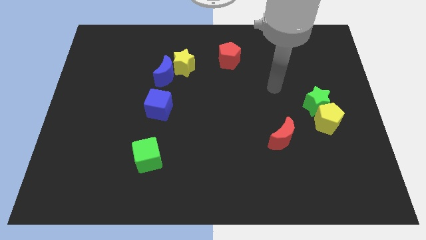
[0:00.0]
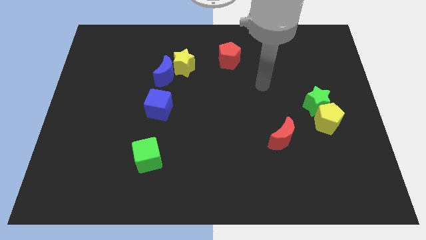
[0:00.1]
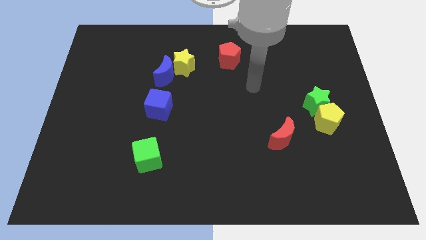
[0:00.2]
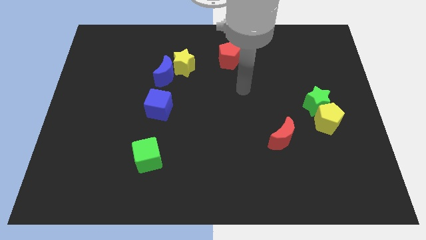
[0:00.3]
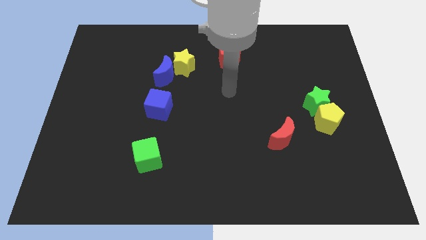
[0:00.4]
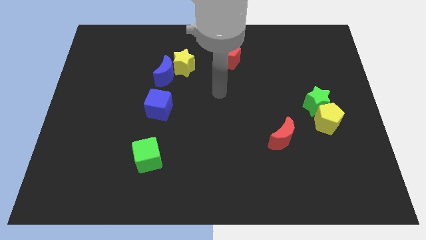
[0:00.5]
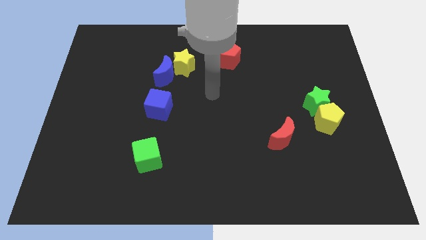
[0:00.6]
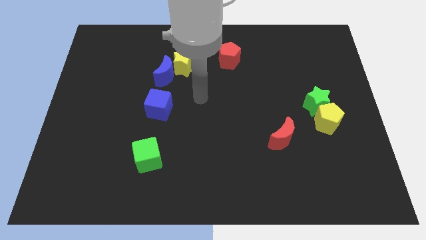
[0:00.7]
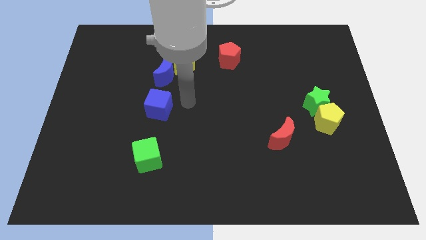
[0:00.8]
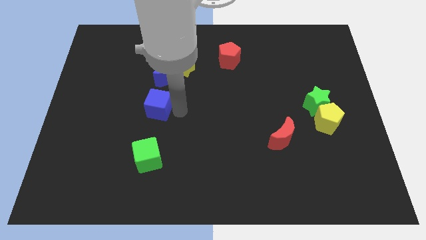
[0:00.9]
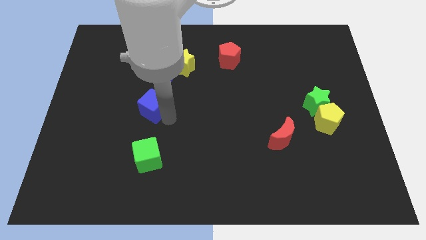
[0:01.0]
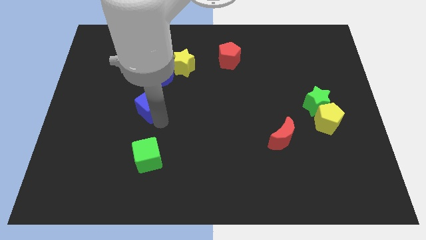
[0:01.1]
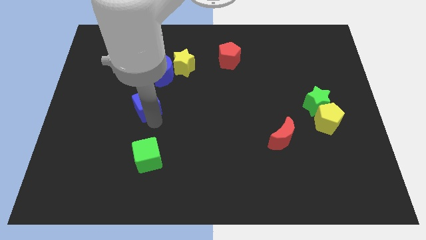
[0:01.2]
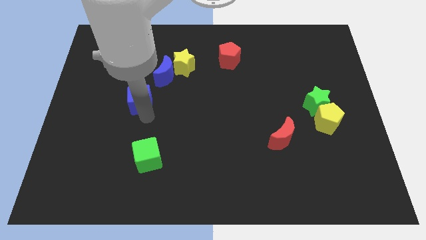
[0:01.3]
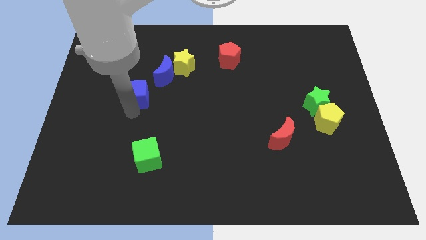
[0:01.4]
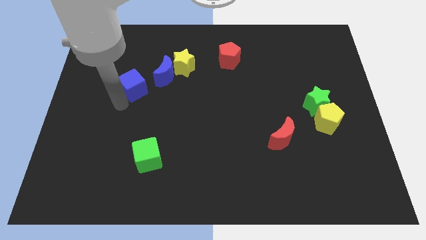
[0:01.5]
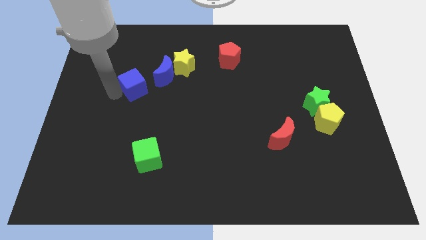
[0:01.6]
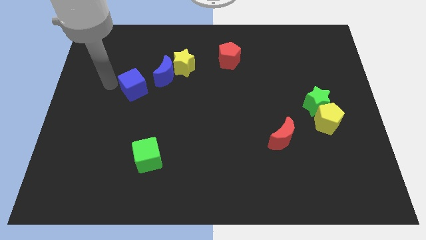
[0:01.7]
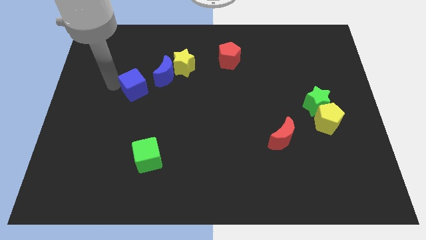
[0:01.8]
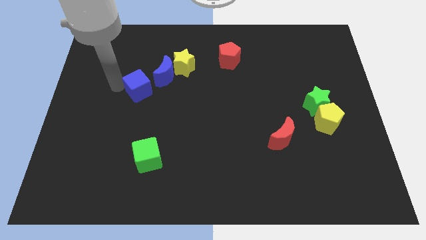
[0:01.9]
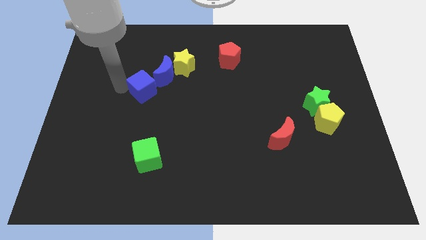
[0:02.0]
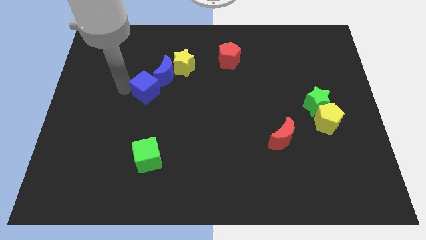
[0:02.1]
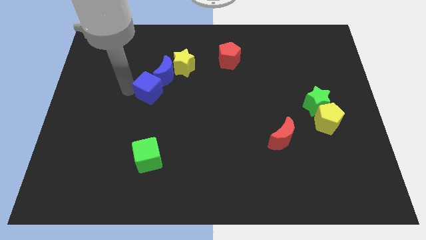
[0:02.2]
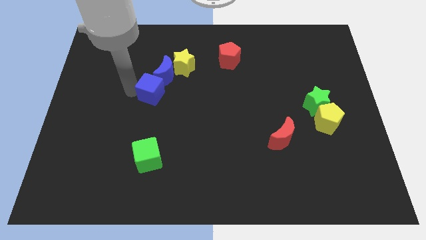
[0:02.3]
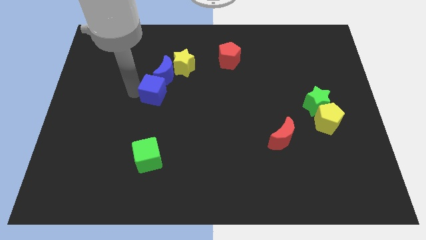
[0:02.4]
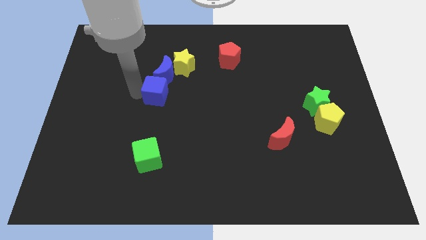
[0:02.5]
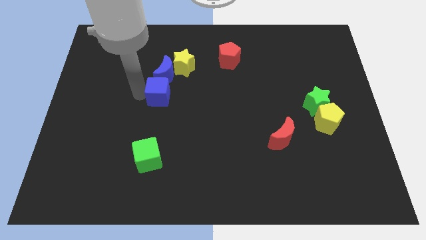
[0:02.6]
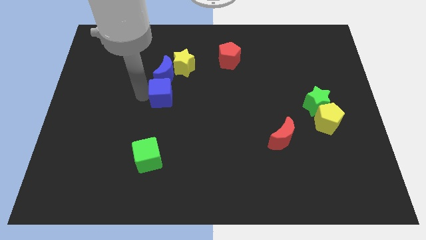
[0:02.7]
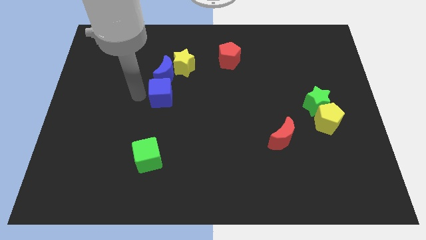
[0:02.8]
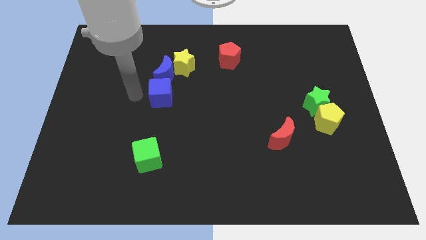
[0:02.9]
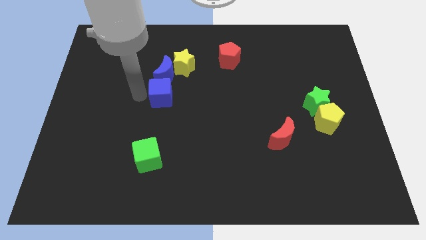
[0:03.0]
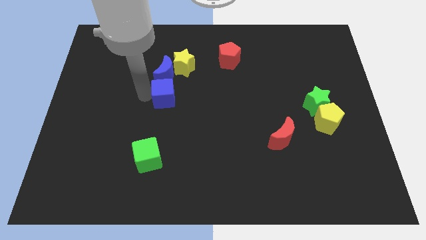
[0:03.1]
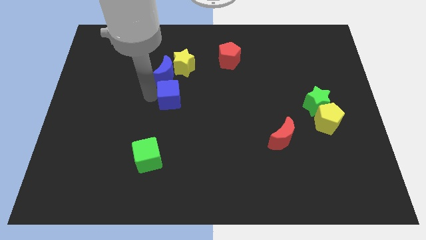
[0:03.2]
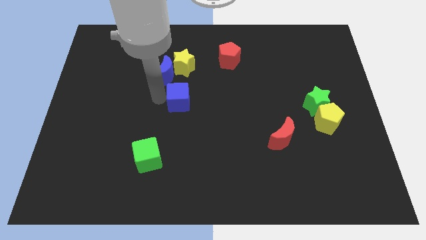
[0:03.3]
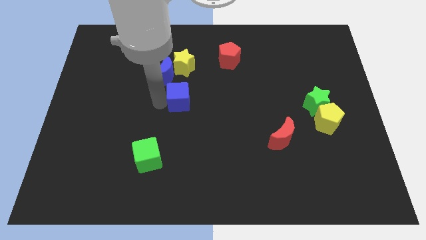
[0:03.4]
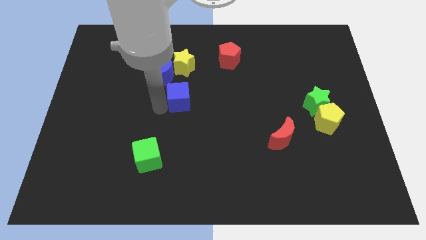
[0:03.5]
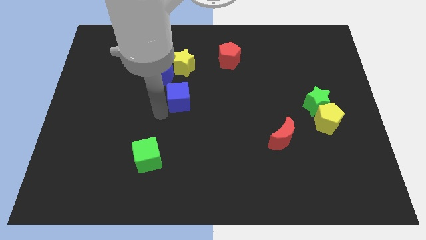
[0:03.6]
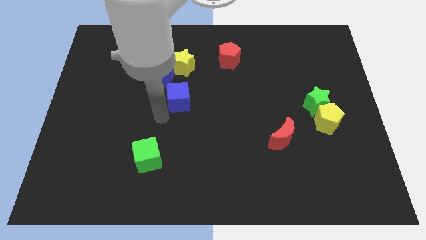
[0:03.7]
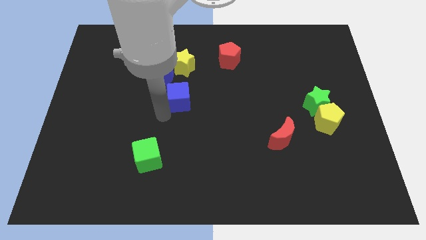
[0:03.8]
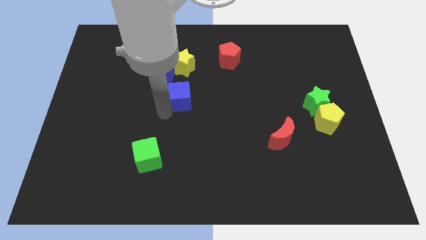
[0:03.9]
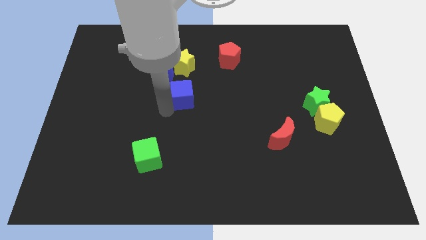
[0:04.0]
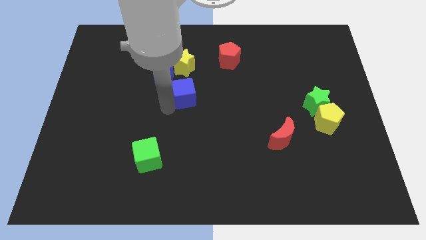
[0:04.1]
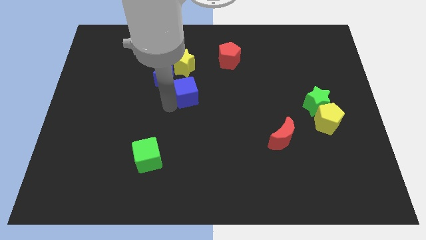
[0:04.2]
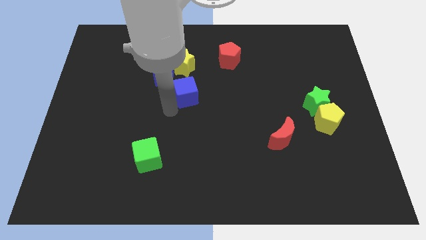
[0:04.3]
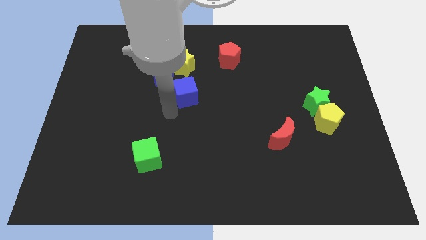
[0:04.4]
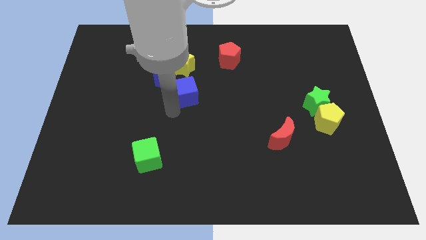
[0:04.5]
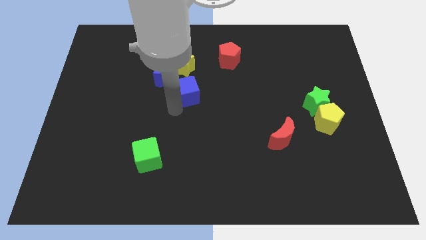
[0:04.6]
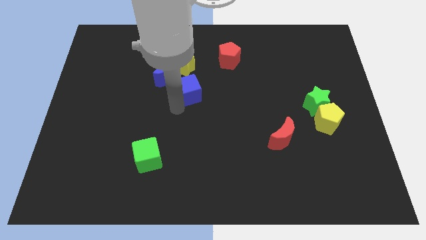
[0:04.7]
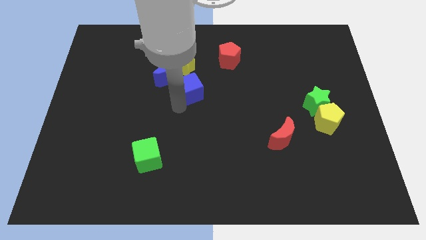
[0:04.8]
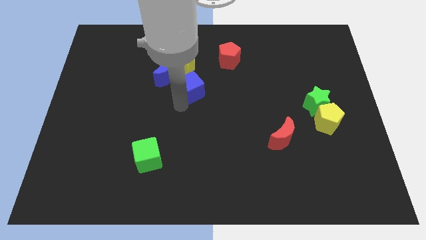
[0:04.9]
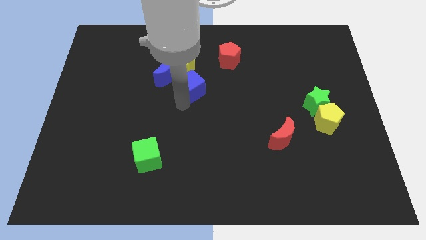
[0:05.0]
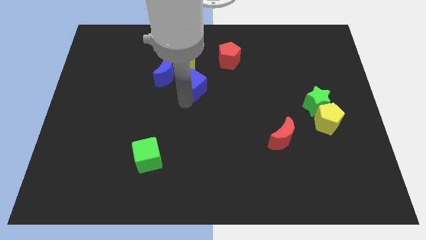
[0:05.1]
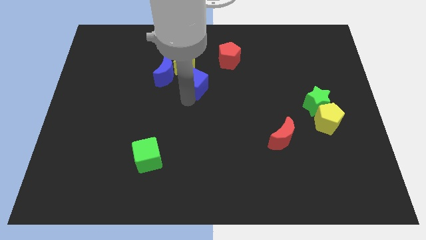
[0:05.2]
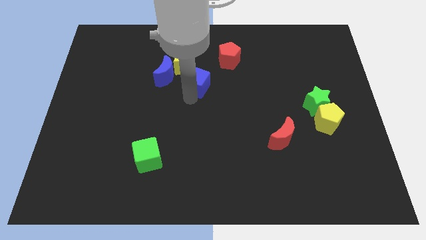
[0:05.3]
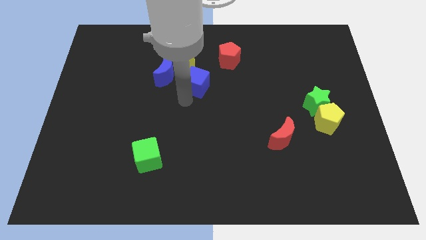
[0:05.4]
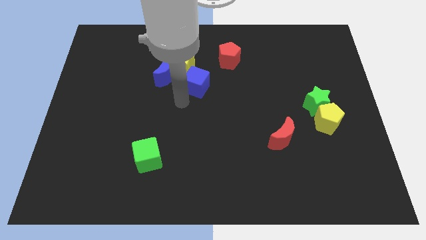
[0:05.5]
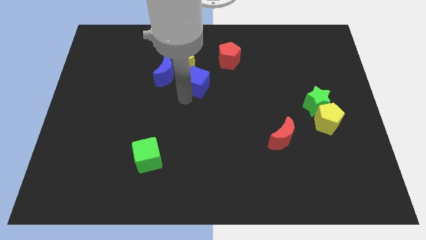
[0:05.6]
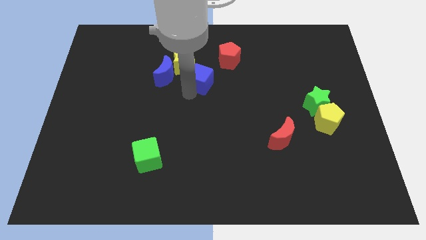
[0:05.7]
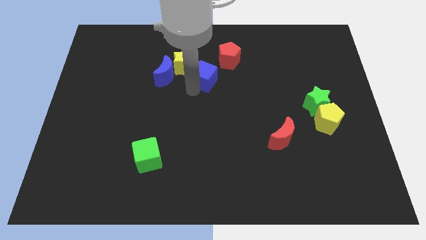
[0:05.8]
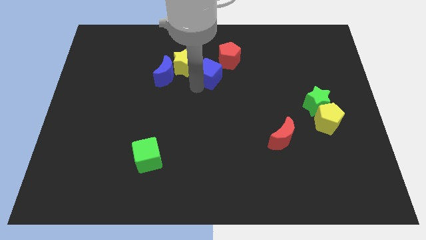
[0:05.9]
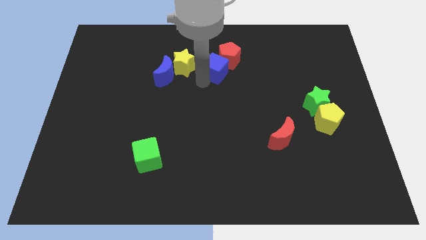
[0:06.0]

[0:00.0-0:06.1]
move the blue cube towards the red pentagon
